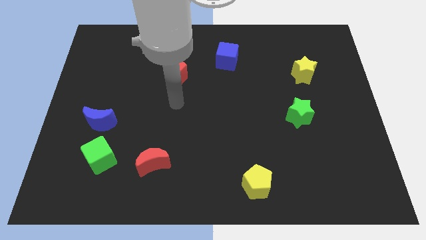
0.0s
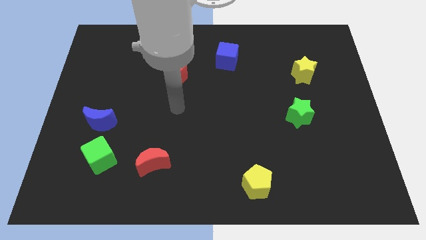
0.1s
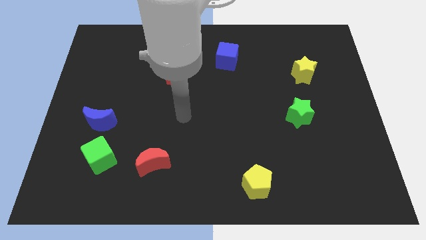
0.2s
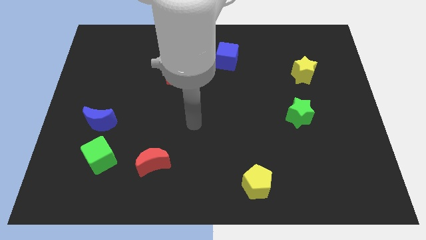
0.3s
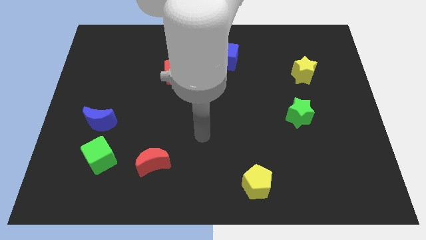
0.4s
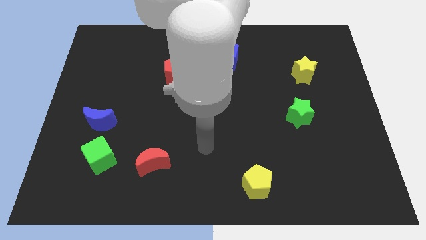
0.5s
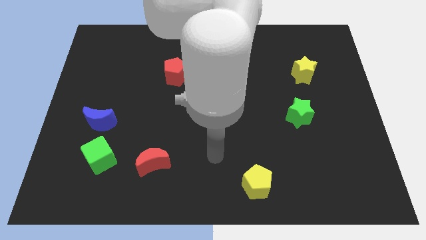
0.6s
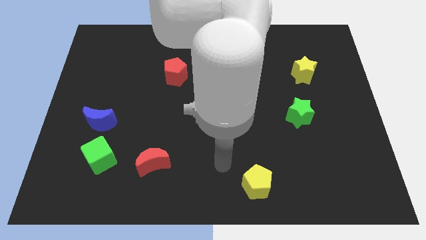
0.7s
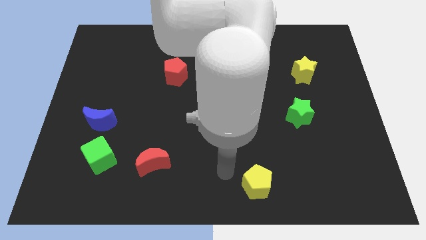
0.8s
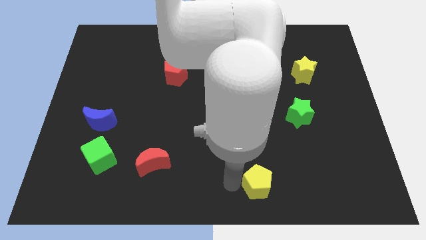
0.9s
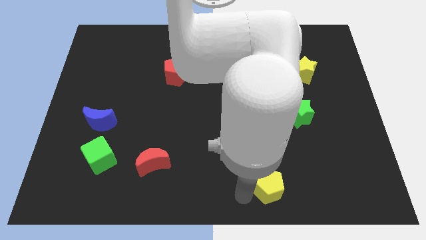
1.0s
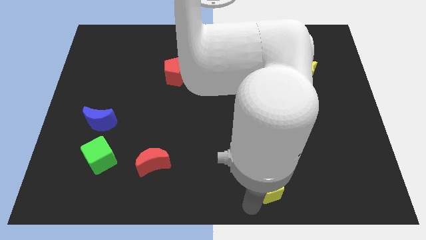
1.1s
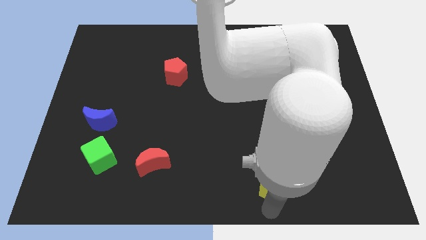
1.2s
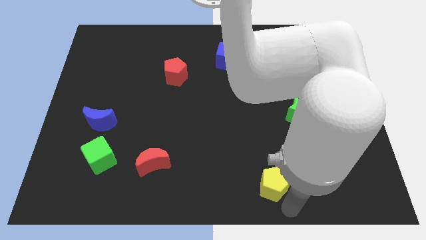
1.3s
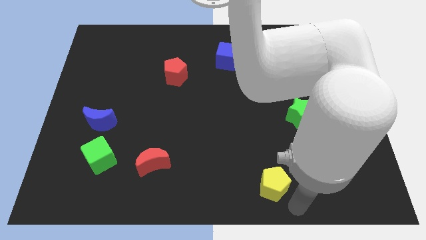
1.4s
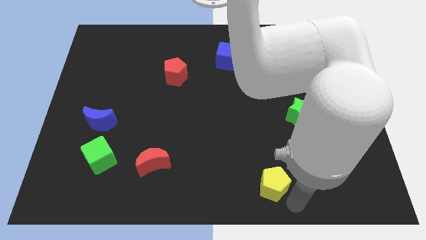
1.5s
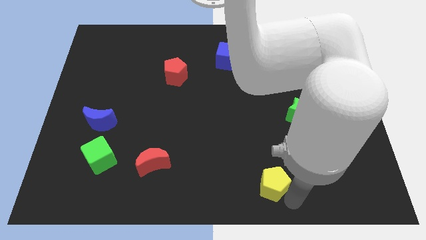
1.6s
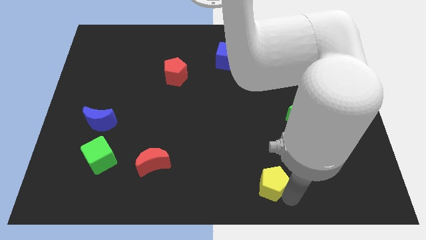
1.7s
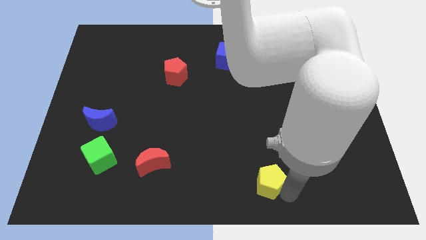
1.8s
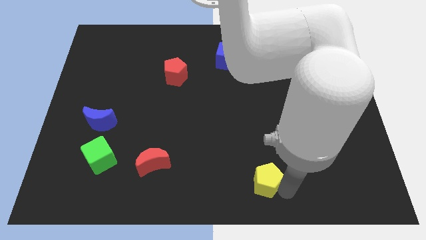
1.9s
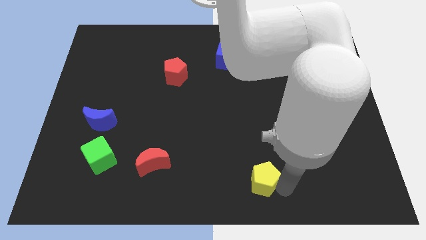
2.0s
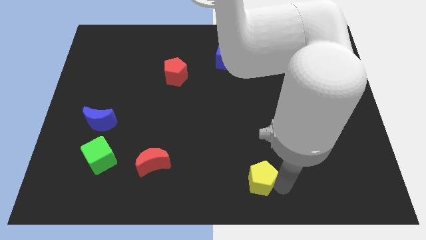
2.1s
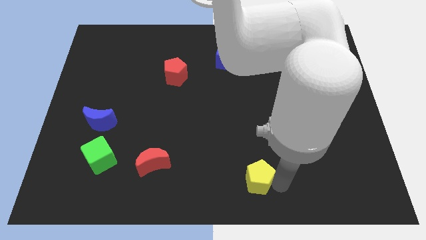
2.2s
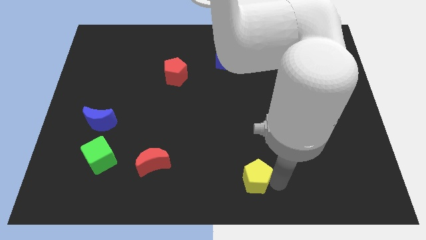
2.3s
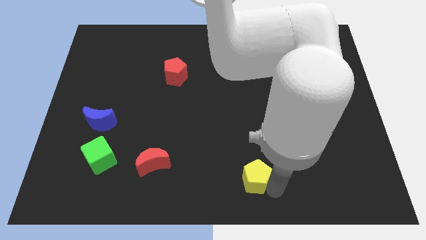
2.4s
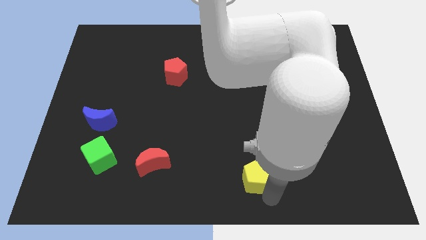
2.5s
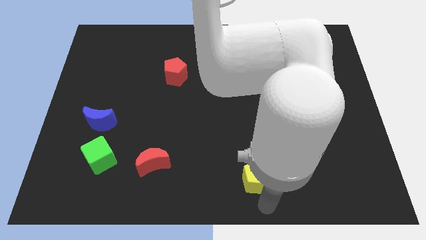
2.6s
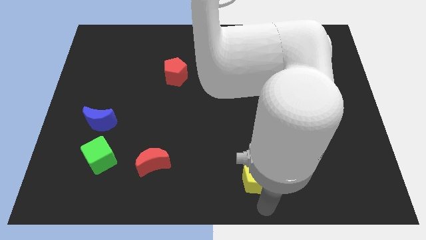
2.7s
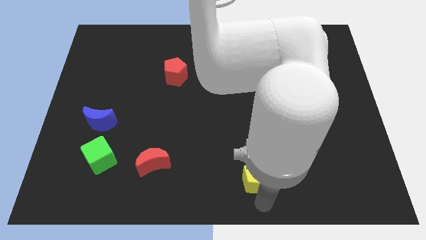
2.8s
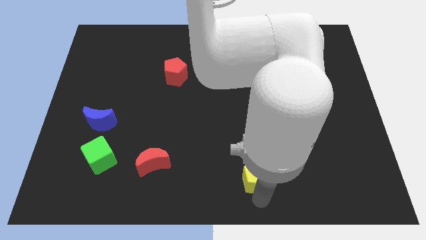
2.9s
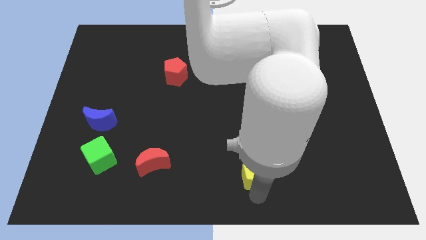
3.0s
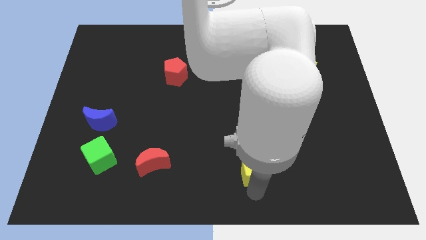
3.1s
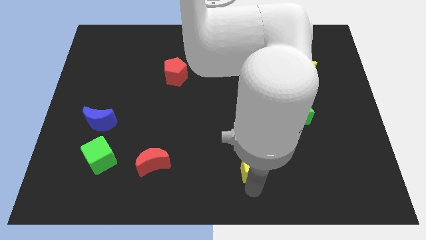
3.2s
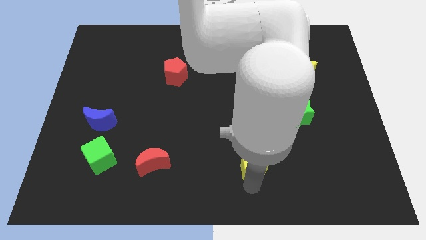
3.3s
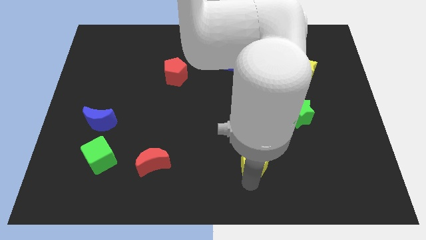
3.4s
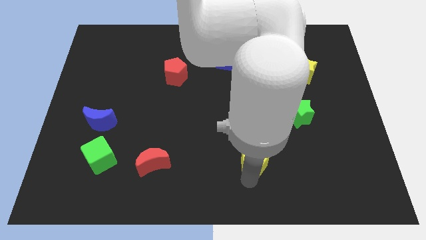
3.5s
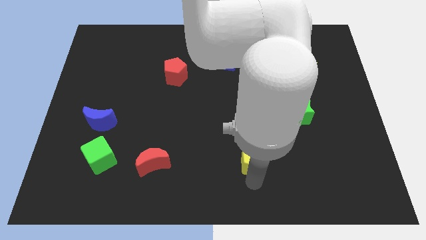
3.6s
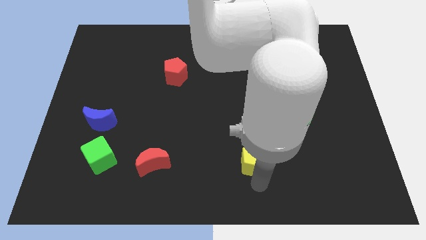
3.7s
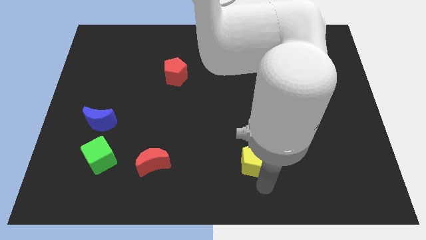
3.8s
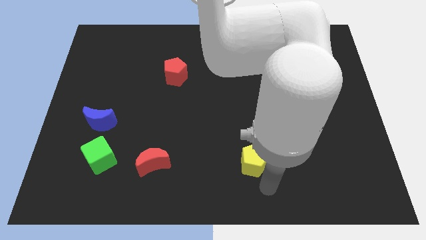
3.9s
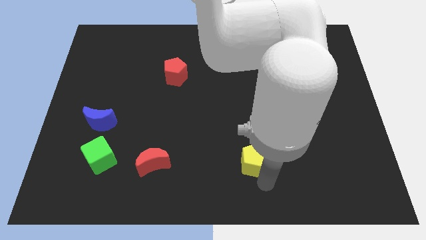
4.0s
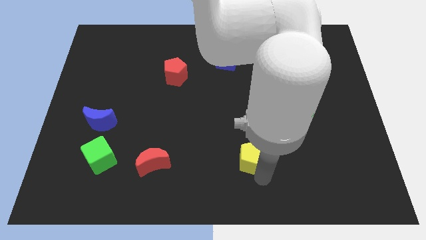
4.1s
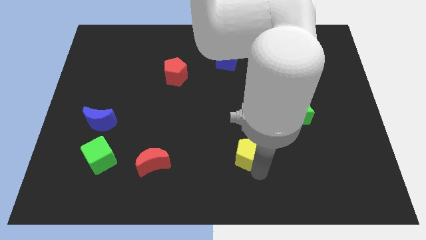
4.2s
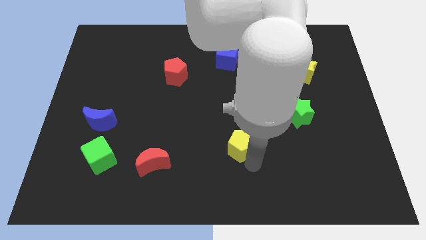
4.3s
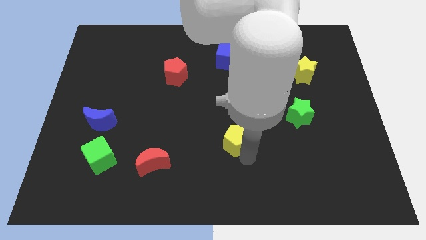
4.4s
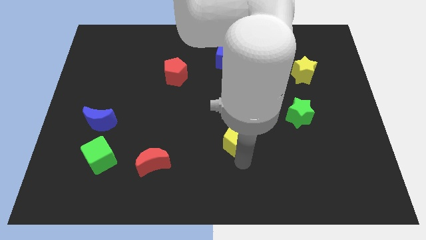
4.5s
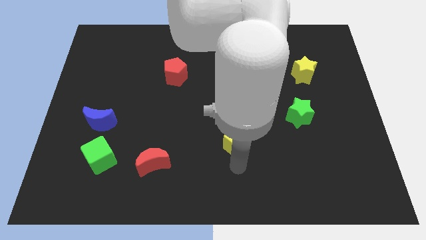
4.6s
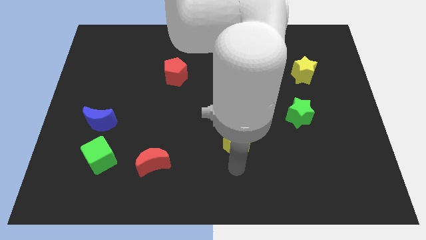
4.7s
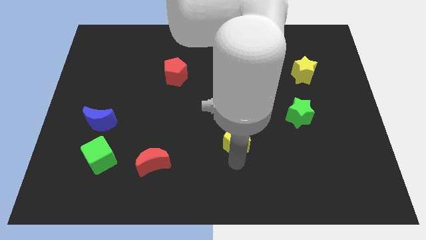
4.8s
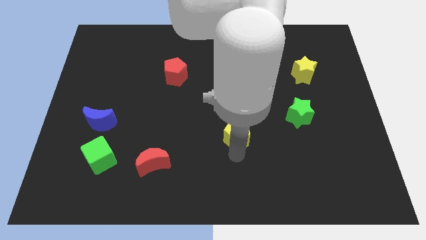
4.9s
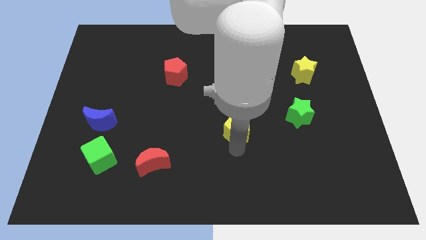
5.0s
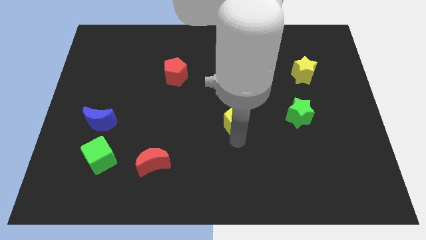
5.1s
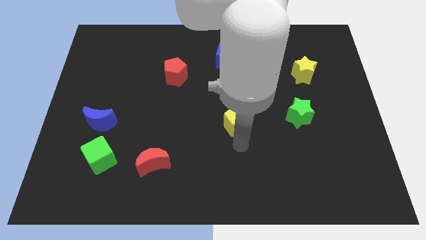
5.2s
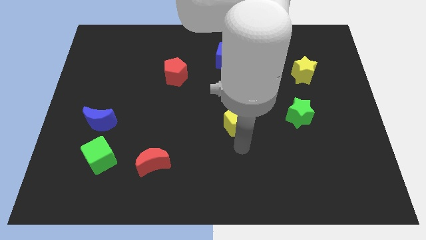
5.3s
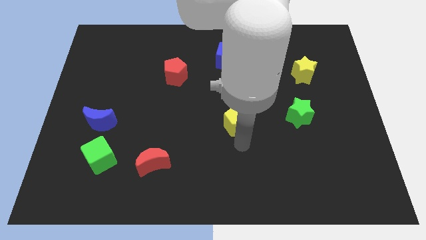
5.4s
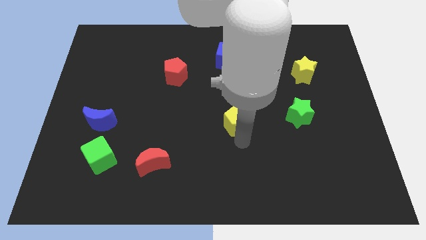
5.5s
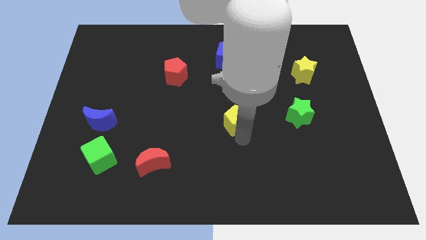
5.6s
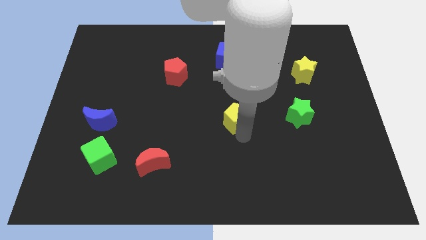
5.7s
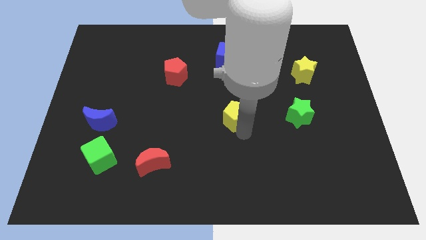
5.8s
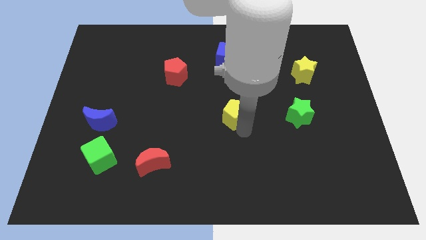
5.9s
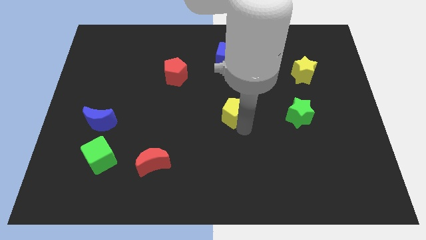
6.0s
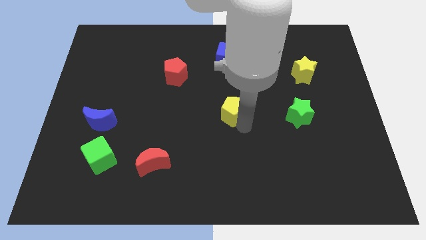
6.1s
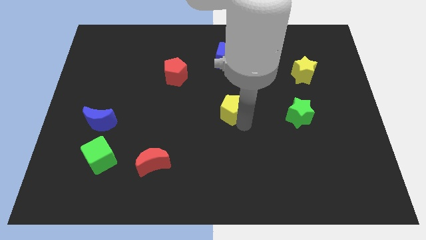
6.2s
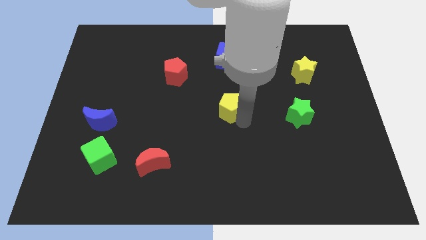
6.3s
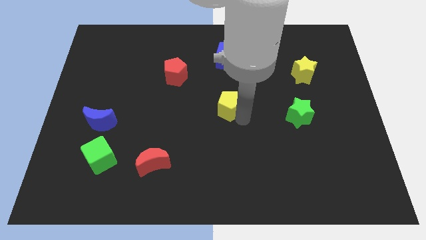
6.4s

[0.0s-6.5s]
push the yellow pentagon below the blue cube

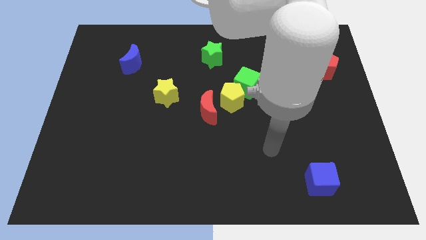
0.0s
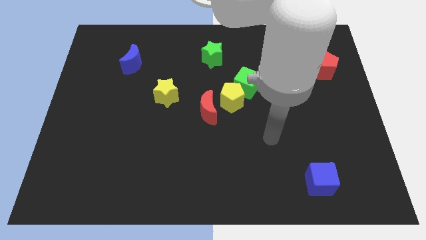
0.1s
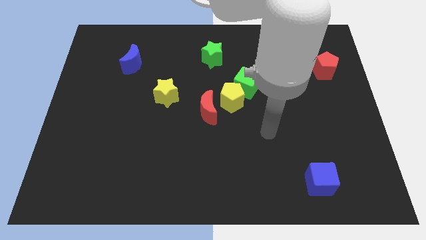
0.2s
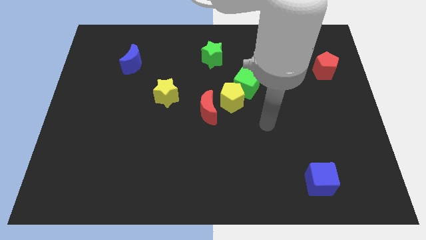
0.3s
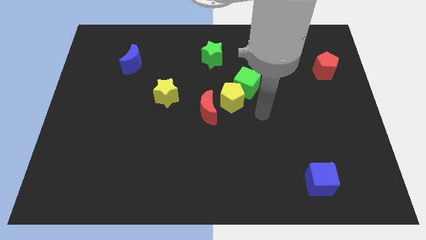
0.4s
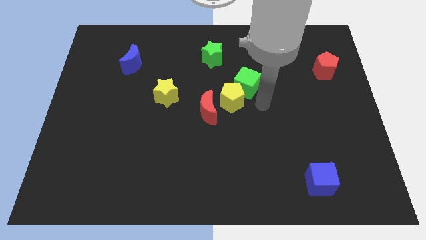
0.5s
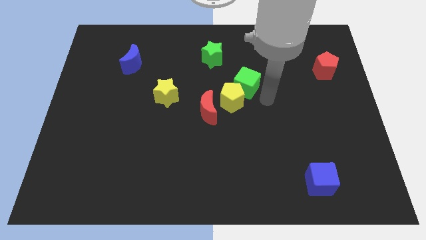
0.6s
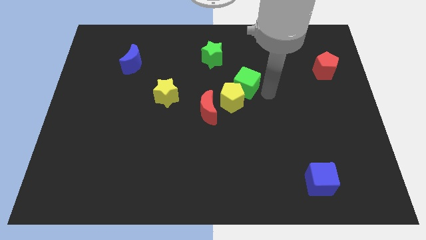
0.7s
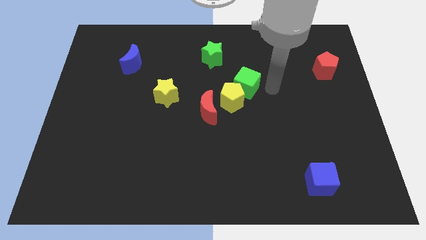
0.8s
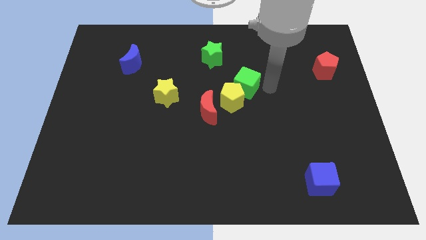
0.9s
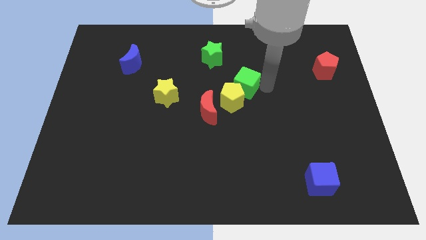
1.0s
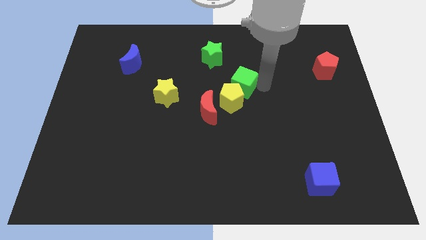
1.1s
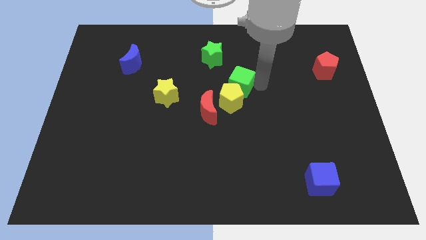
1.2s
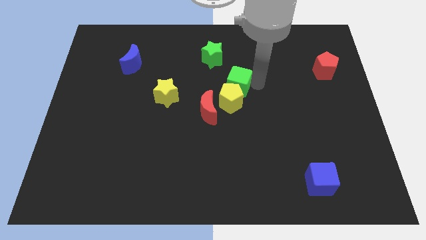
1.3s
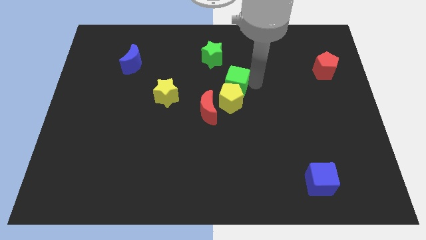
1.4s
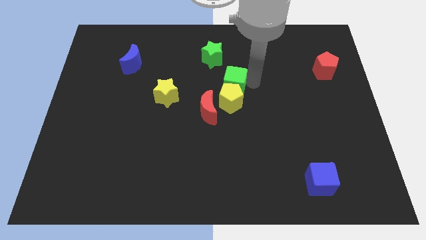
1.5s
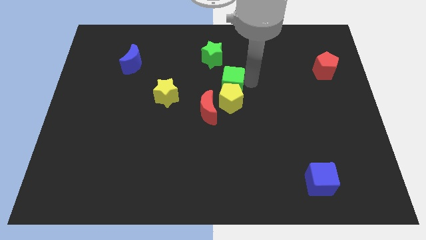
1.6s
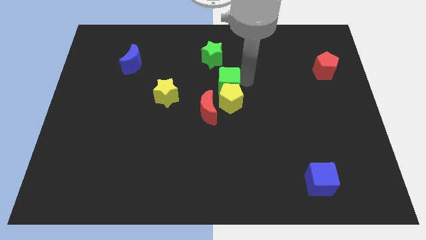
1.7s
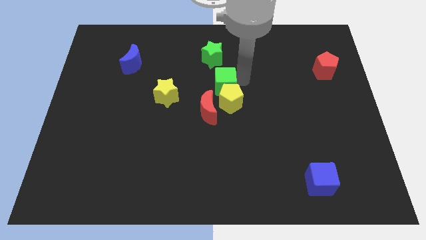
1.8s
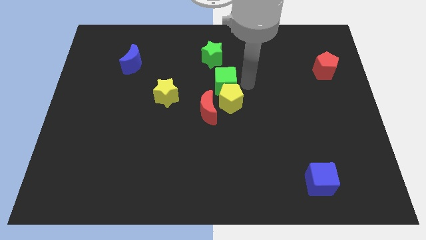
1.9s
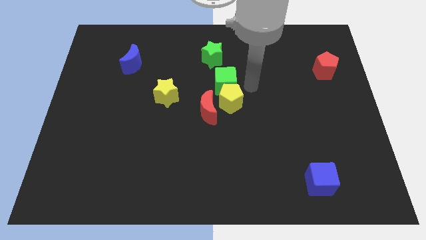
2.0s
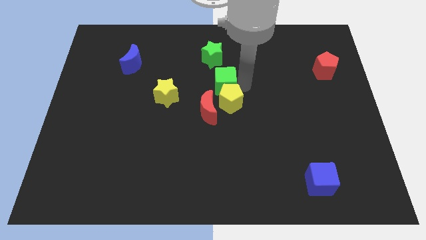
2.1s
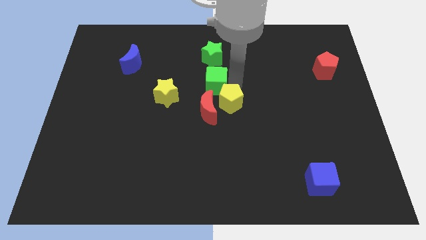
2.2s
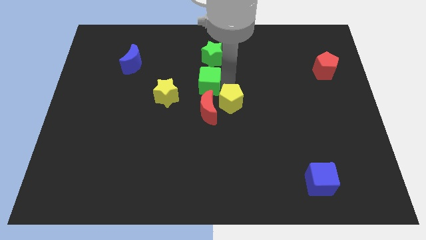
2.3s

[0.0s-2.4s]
move the green cube diagonally up and to the right of the yellow star

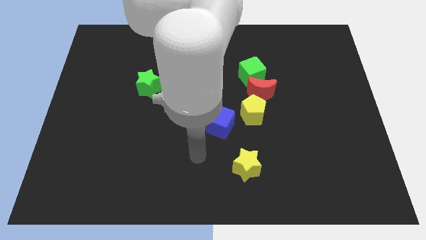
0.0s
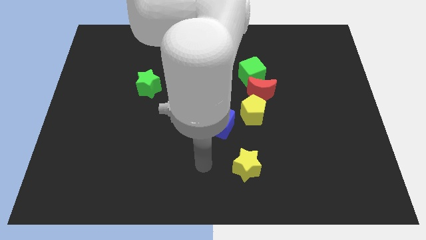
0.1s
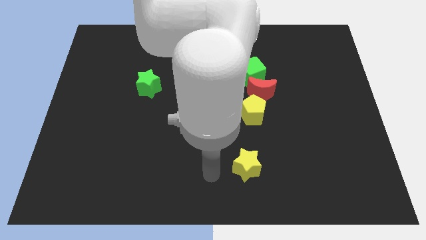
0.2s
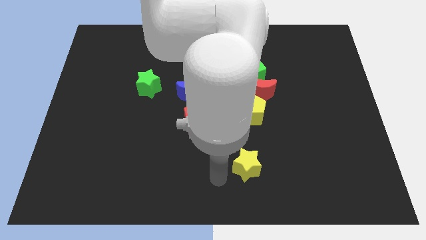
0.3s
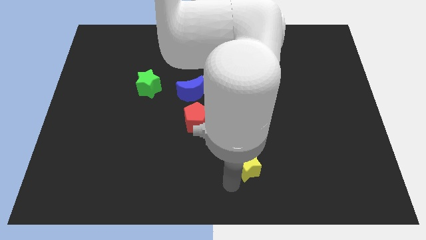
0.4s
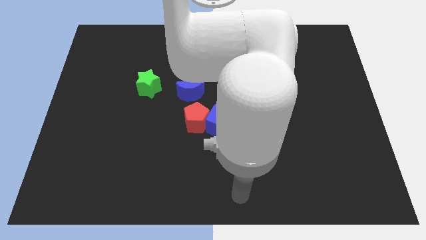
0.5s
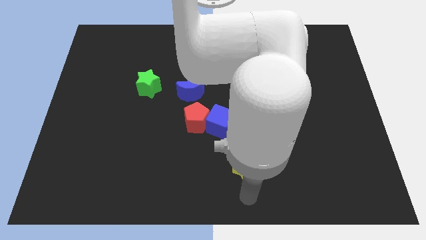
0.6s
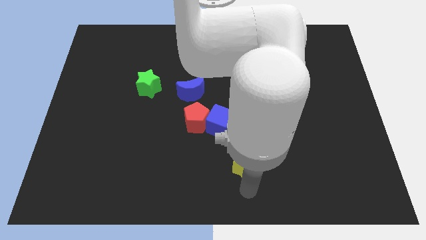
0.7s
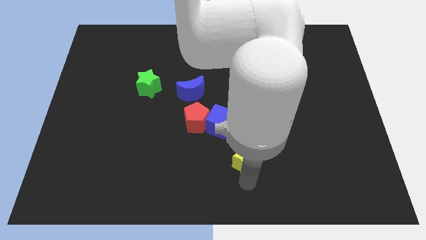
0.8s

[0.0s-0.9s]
push the yellow star to the bottom right of the blue cube
